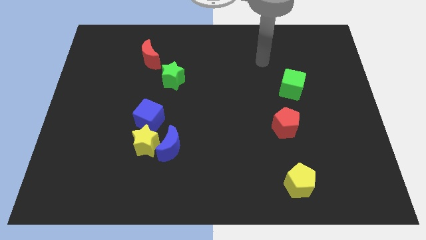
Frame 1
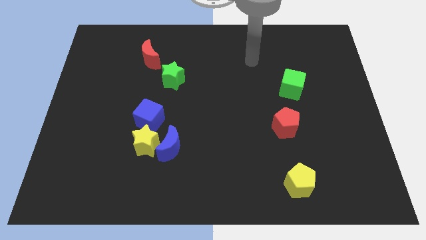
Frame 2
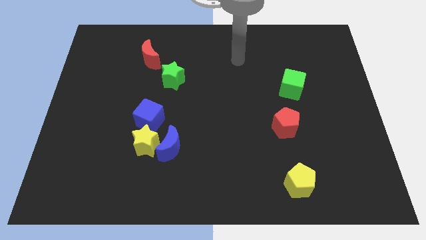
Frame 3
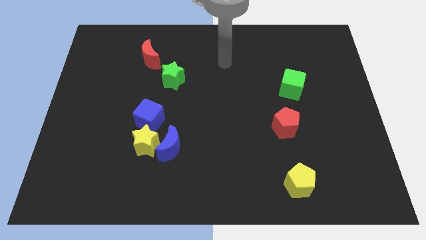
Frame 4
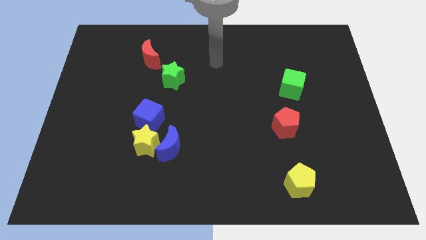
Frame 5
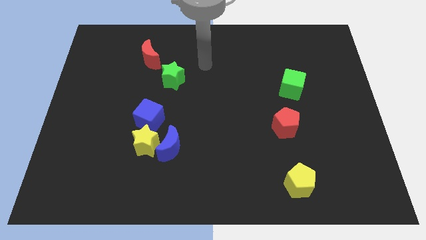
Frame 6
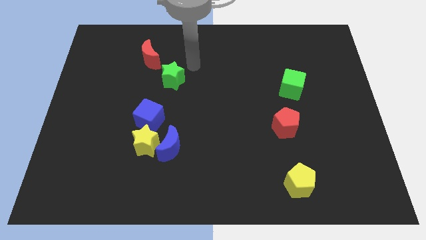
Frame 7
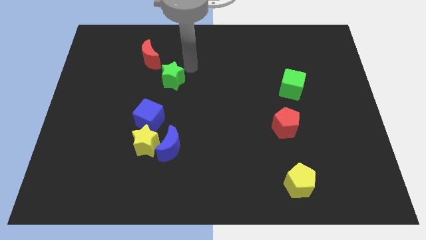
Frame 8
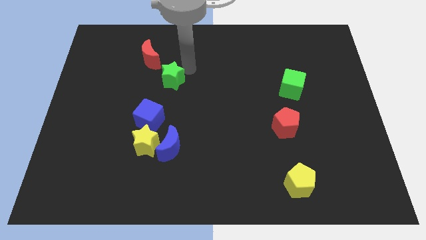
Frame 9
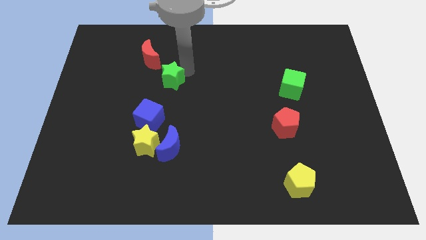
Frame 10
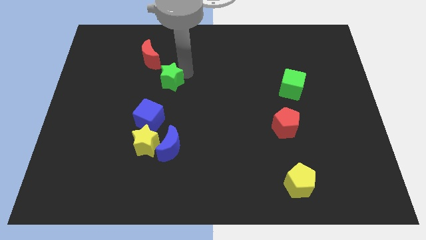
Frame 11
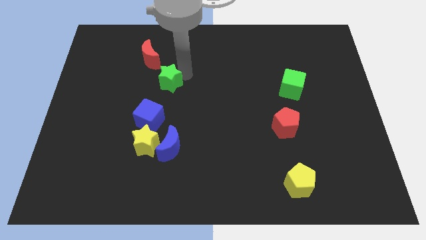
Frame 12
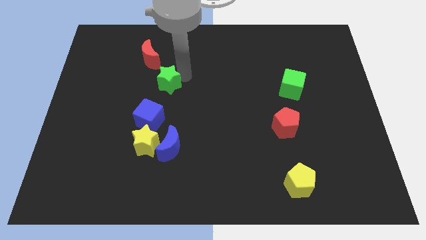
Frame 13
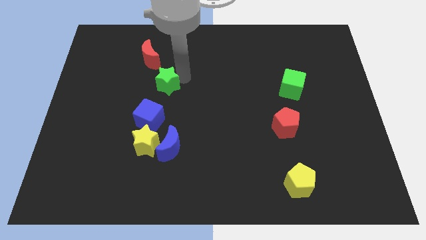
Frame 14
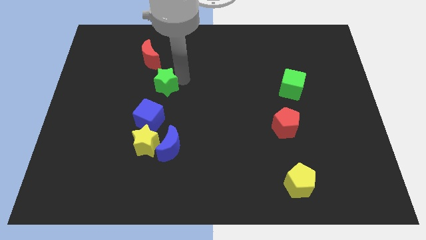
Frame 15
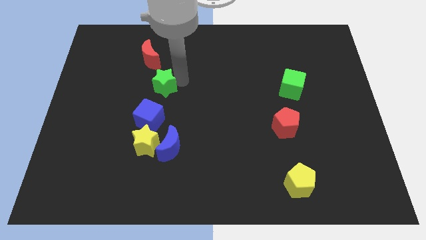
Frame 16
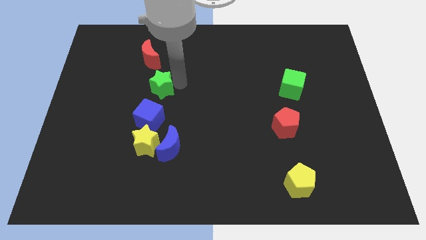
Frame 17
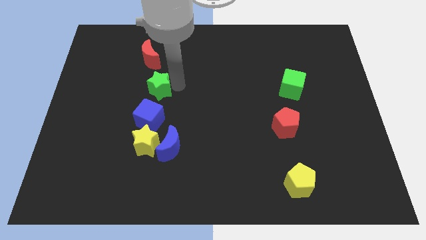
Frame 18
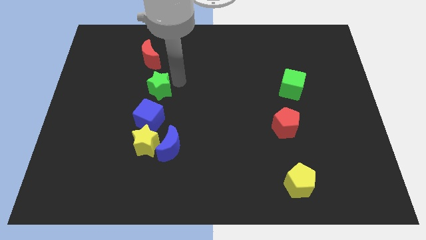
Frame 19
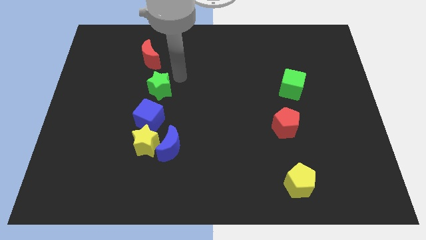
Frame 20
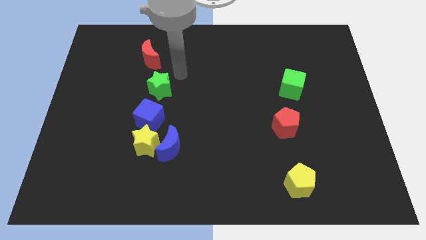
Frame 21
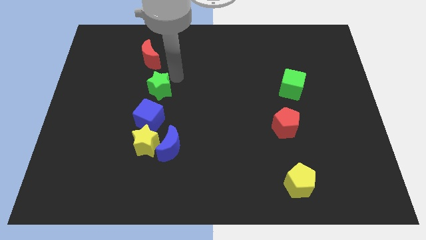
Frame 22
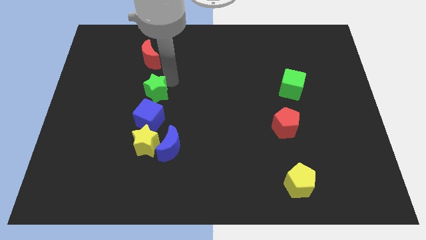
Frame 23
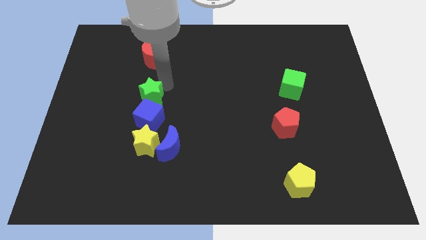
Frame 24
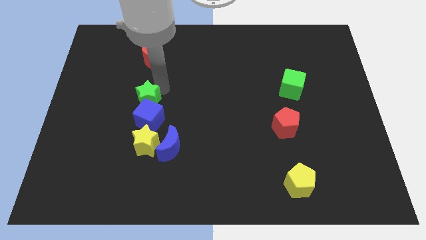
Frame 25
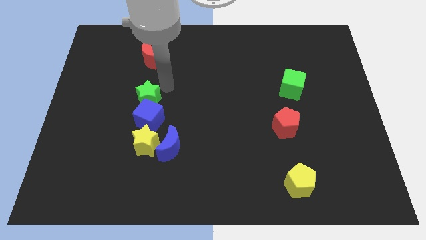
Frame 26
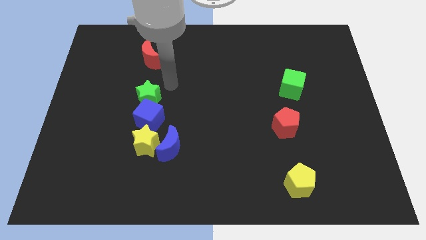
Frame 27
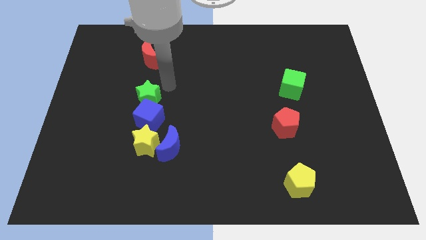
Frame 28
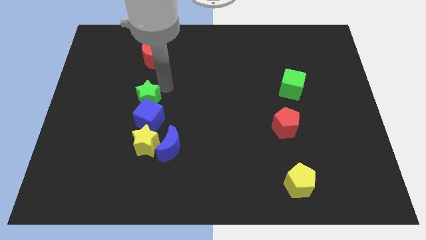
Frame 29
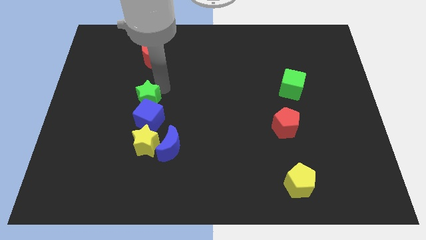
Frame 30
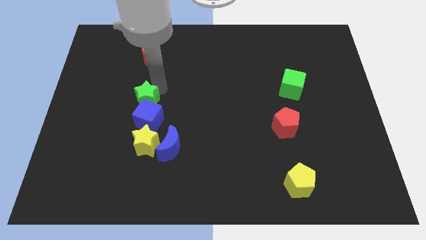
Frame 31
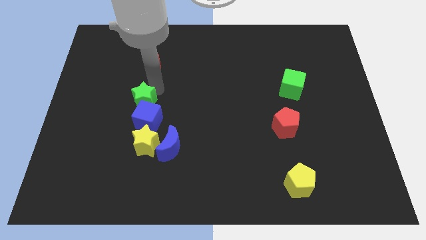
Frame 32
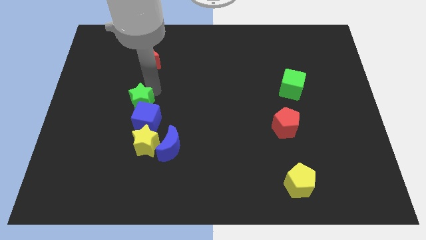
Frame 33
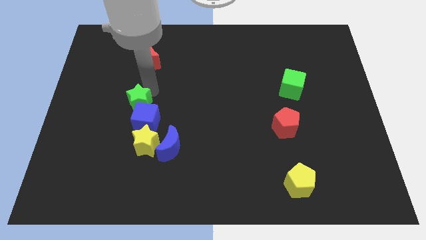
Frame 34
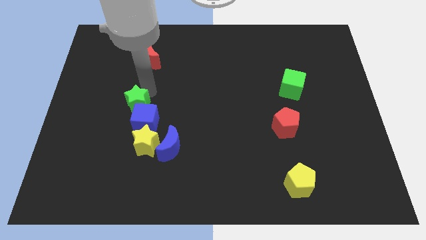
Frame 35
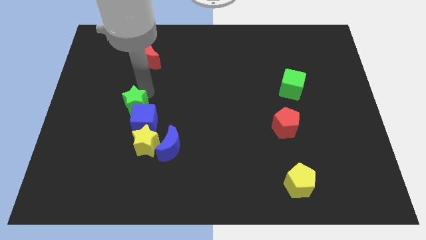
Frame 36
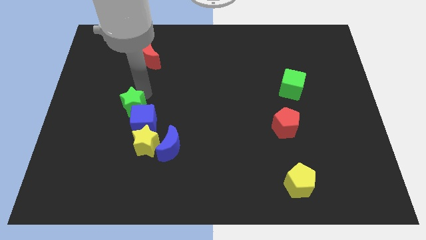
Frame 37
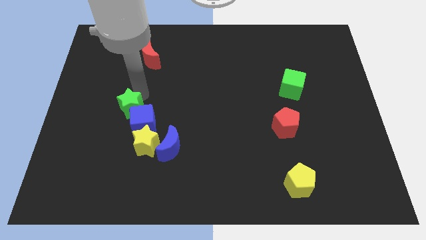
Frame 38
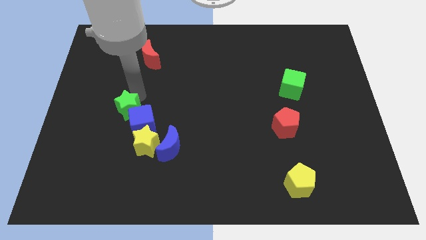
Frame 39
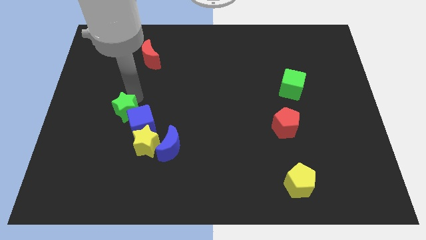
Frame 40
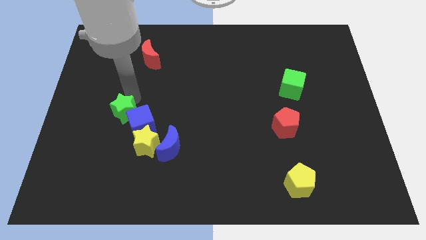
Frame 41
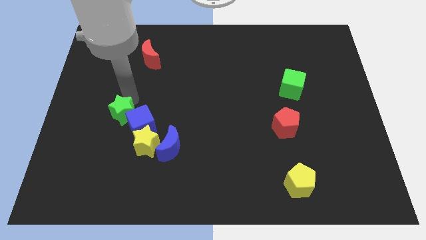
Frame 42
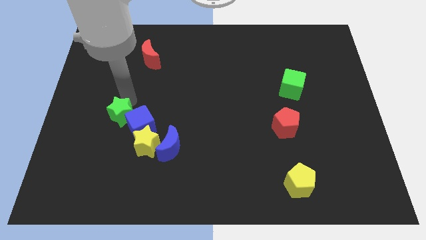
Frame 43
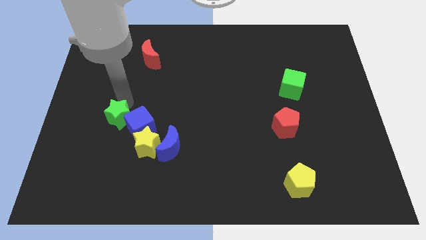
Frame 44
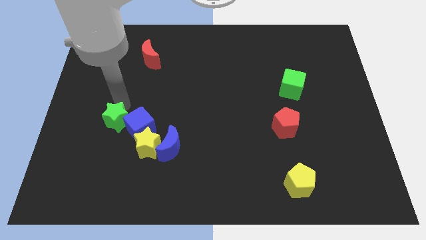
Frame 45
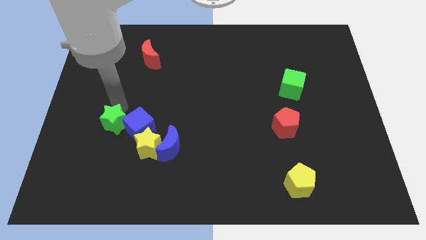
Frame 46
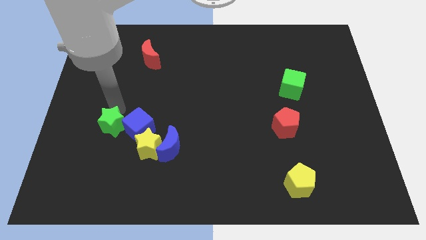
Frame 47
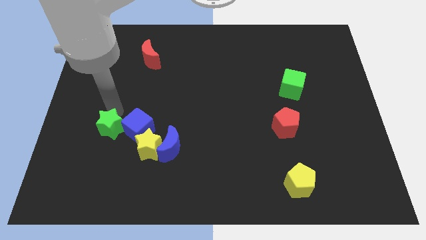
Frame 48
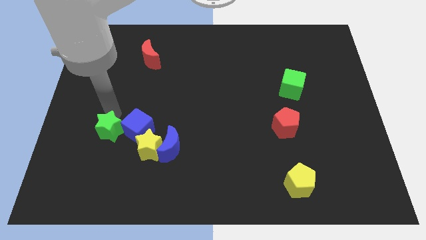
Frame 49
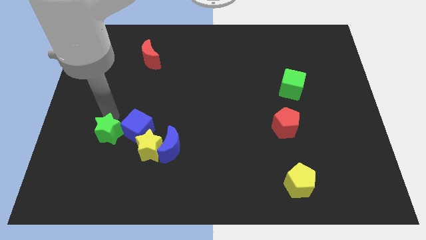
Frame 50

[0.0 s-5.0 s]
slide the green star just left of the yellow star

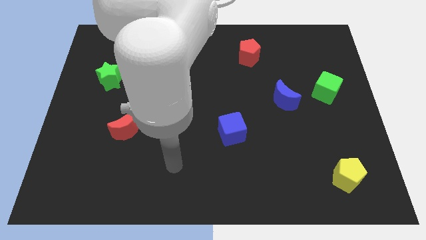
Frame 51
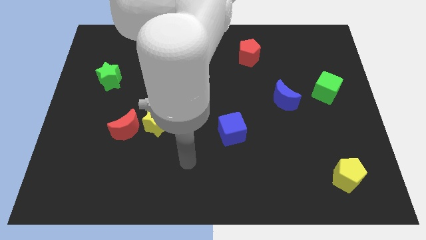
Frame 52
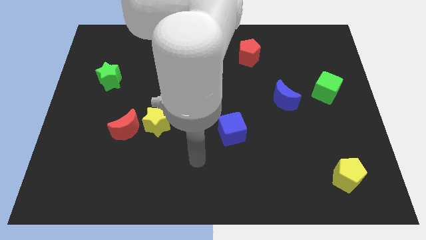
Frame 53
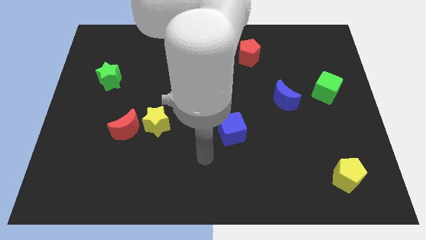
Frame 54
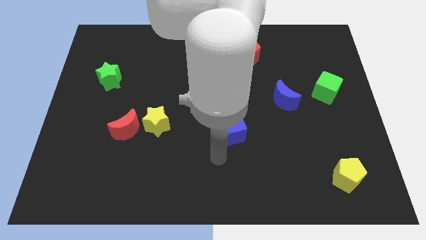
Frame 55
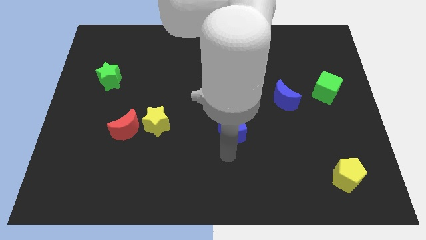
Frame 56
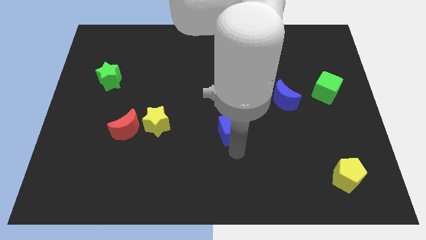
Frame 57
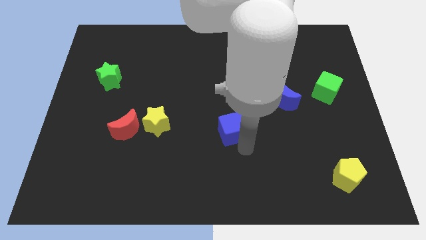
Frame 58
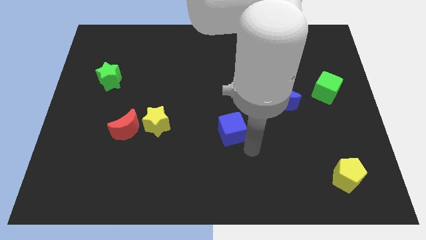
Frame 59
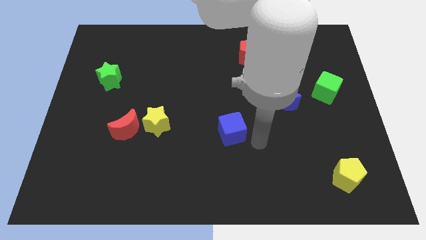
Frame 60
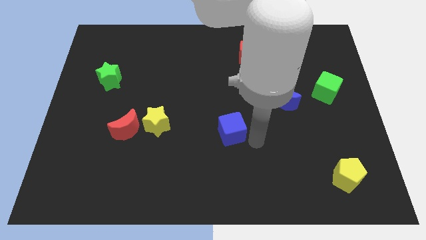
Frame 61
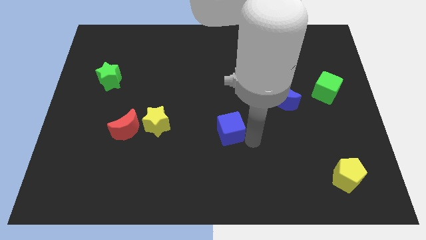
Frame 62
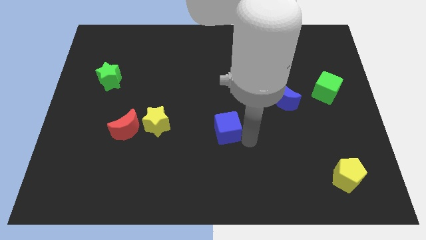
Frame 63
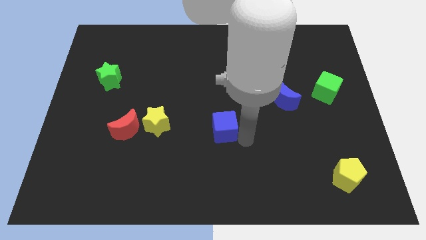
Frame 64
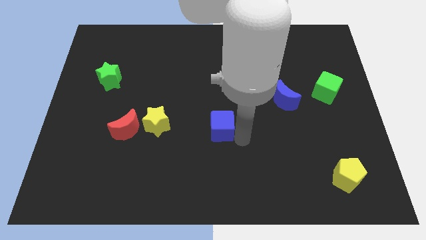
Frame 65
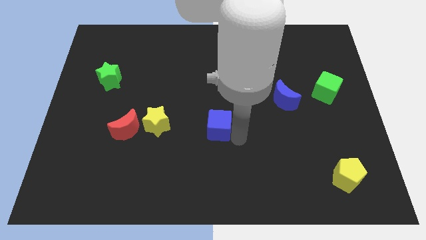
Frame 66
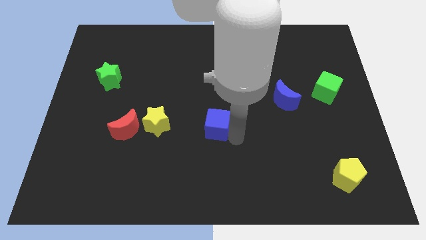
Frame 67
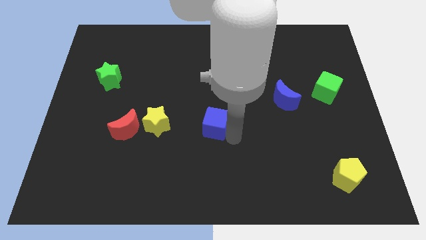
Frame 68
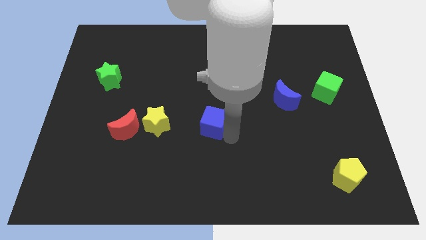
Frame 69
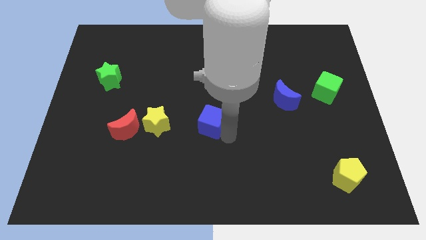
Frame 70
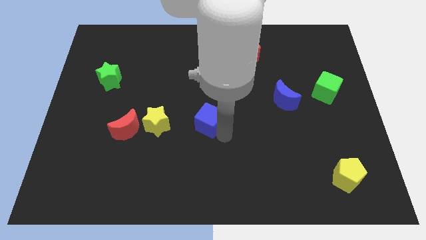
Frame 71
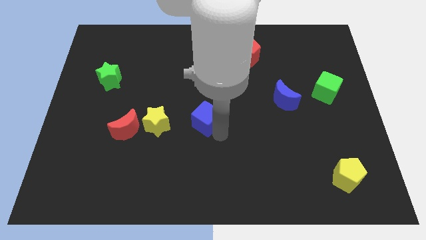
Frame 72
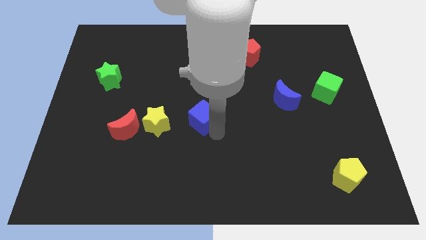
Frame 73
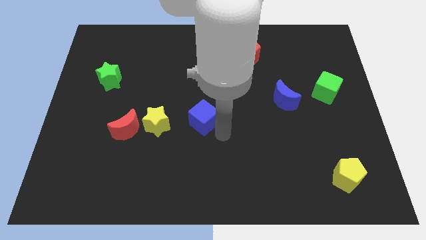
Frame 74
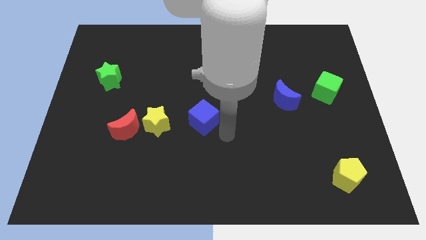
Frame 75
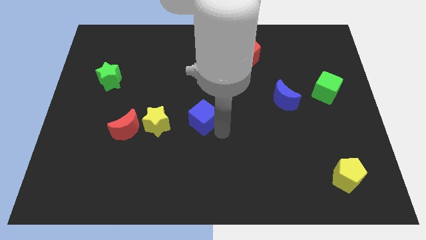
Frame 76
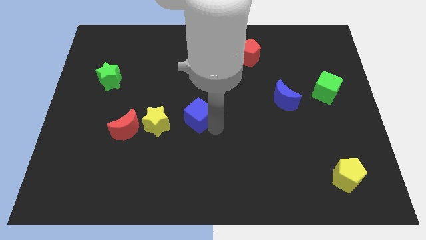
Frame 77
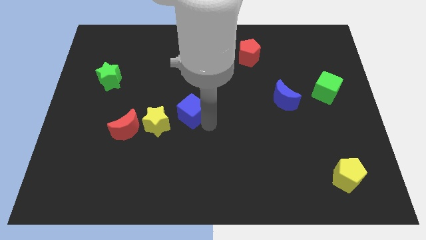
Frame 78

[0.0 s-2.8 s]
slide the blue cube to the top right side of the yellow star

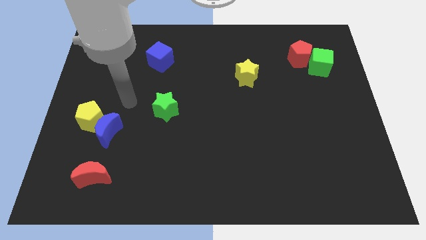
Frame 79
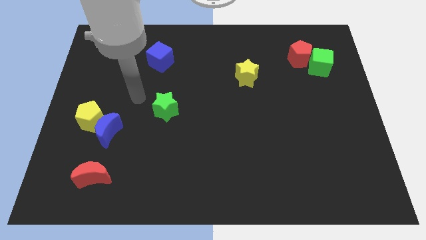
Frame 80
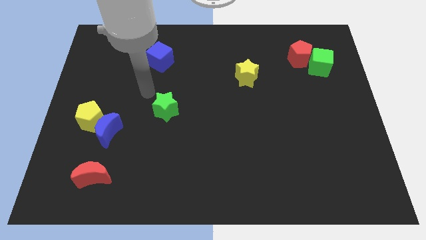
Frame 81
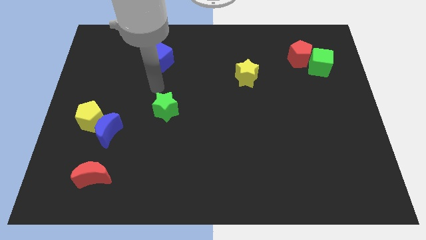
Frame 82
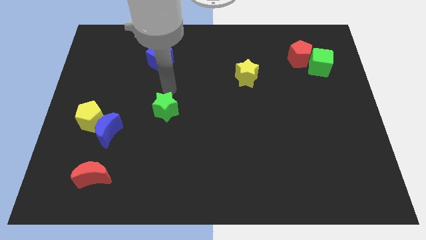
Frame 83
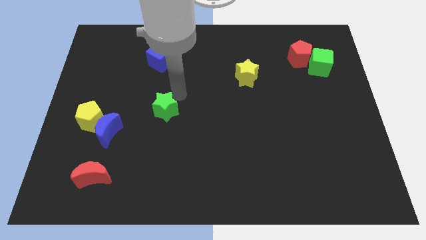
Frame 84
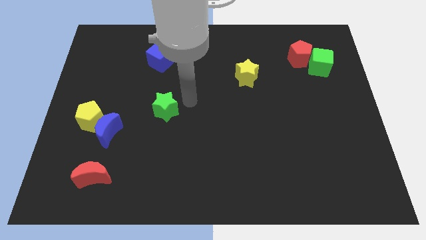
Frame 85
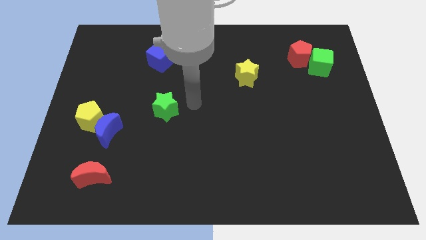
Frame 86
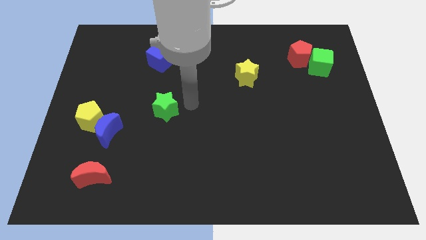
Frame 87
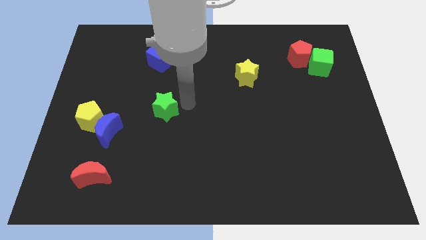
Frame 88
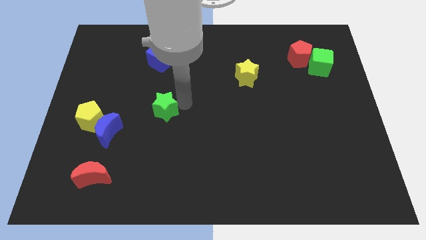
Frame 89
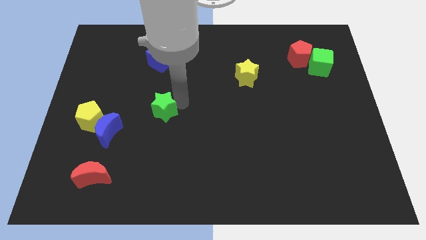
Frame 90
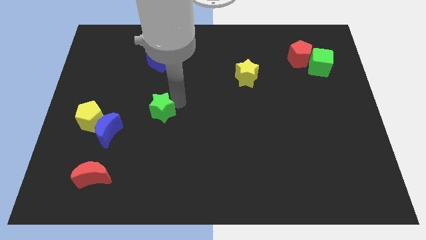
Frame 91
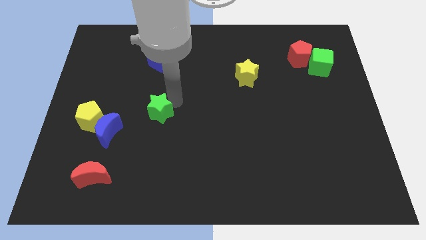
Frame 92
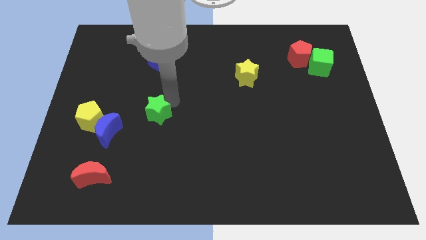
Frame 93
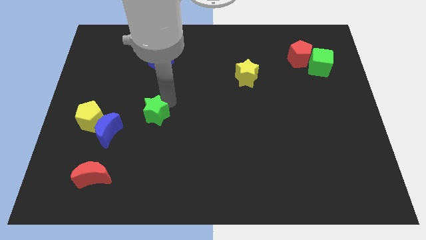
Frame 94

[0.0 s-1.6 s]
slide the green star to the top right of the blue moon
